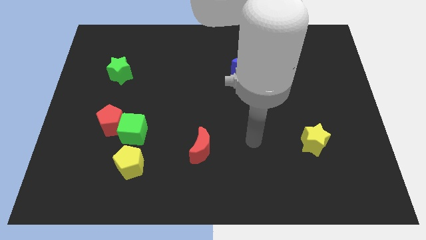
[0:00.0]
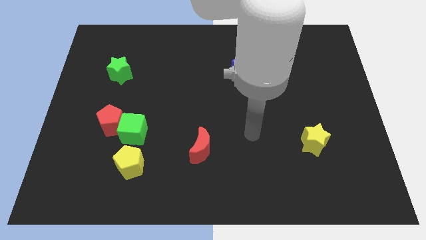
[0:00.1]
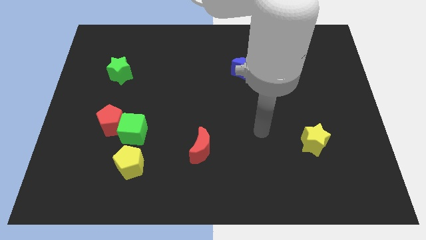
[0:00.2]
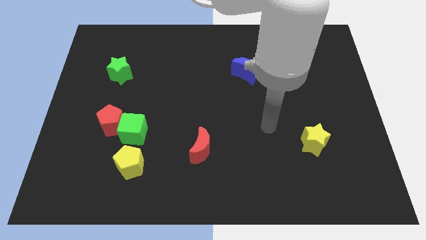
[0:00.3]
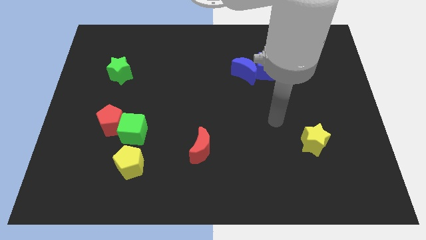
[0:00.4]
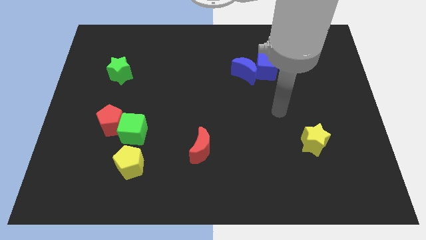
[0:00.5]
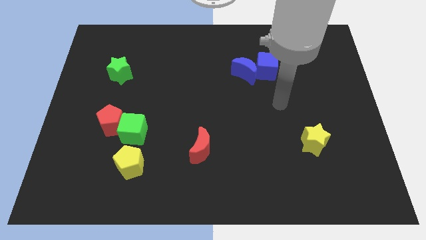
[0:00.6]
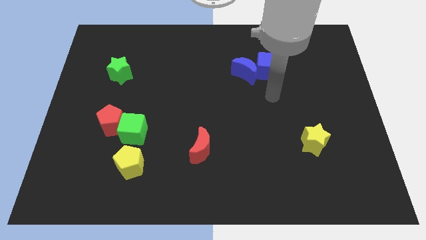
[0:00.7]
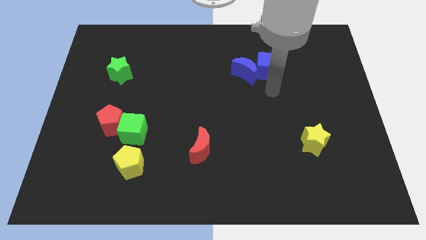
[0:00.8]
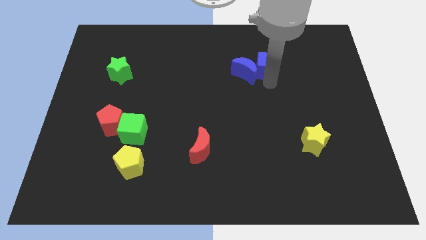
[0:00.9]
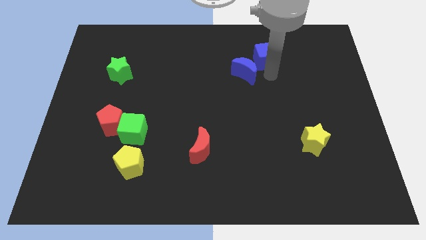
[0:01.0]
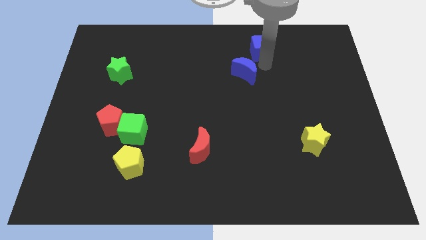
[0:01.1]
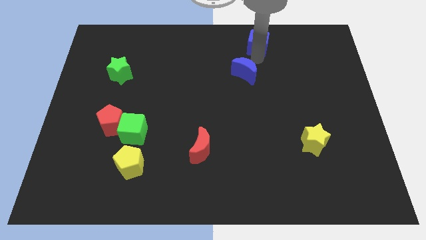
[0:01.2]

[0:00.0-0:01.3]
move the blue moon away from the blue cube

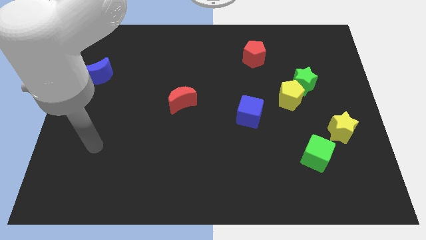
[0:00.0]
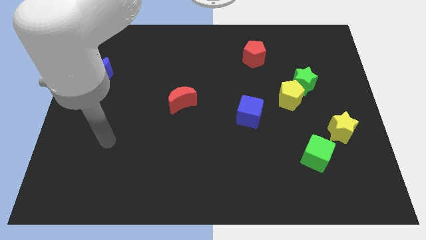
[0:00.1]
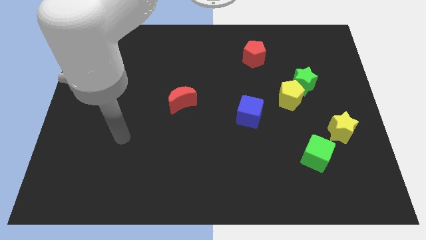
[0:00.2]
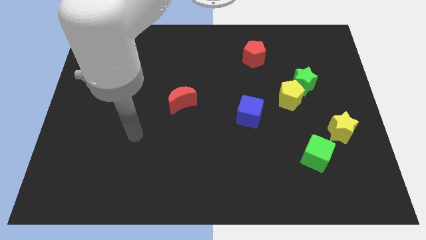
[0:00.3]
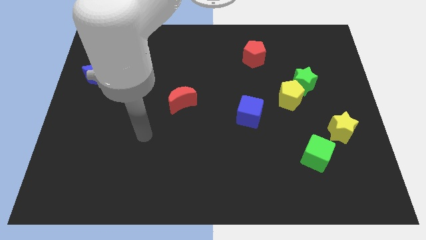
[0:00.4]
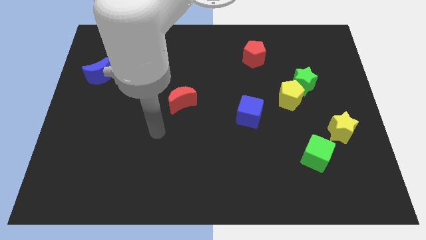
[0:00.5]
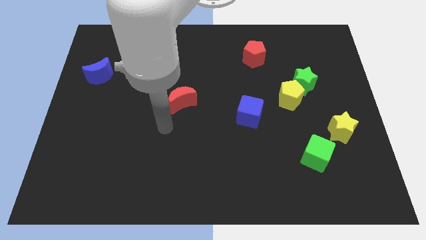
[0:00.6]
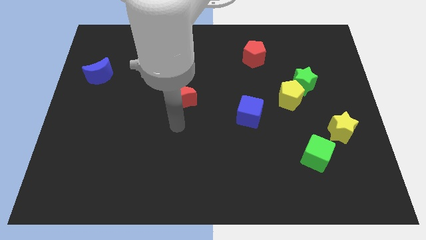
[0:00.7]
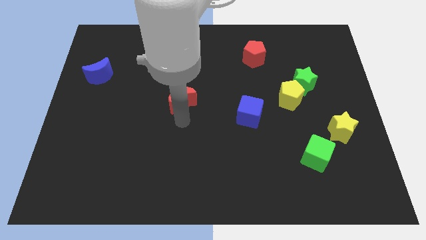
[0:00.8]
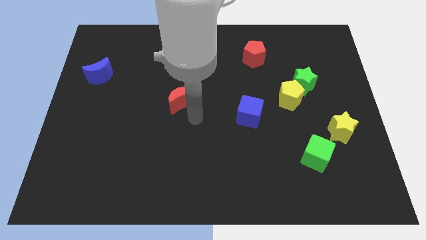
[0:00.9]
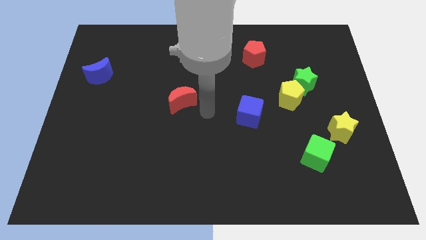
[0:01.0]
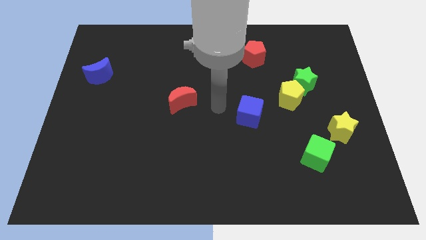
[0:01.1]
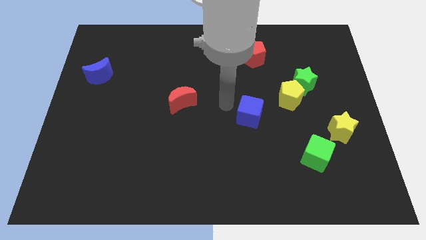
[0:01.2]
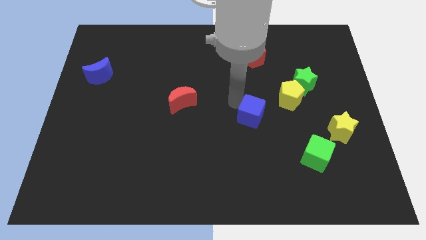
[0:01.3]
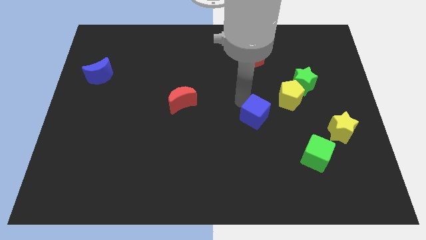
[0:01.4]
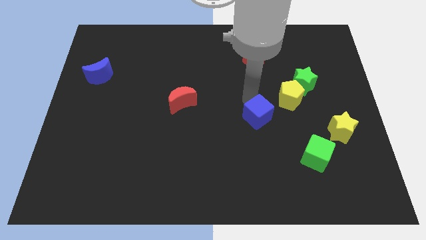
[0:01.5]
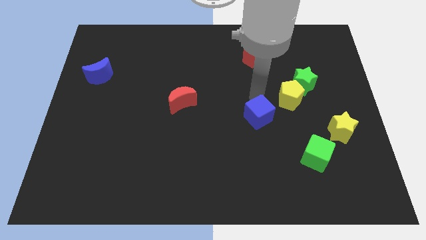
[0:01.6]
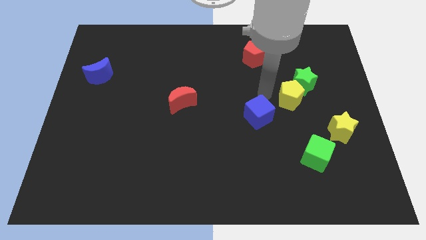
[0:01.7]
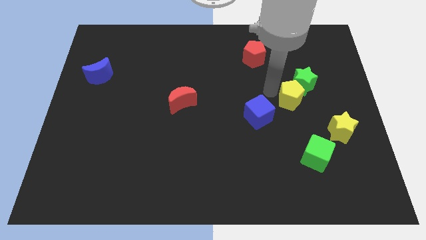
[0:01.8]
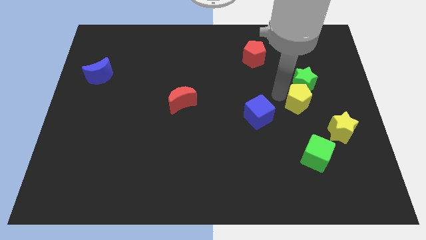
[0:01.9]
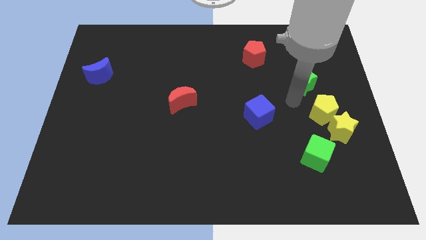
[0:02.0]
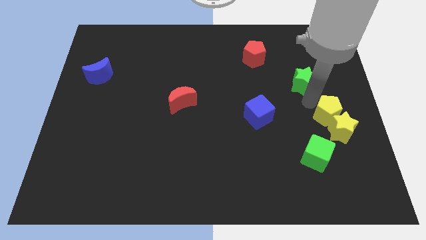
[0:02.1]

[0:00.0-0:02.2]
separate the green star from the yellow pentagon

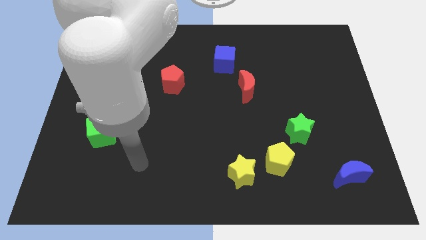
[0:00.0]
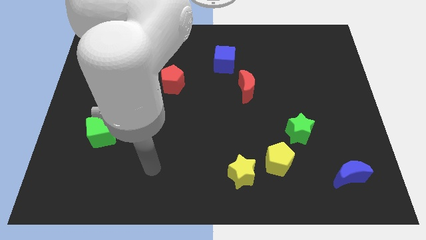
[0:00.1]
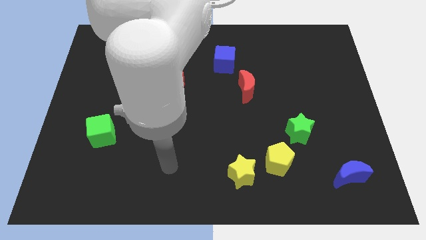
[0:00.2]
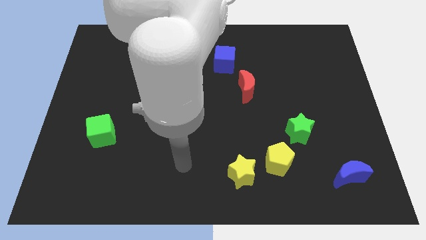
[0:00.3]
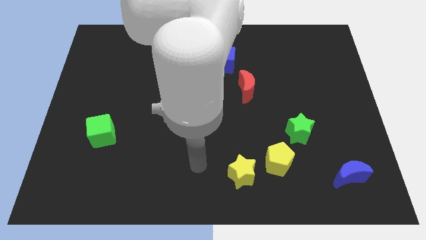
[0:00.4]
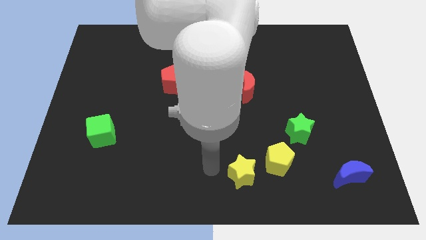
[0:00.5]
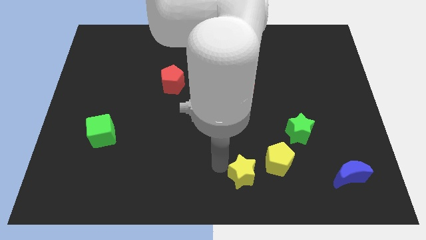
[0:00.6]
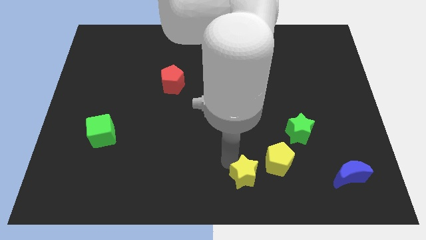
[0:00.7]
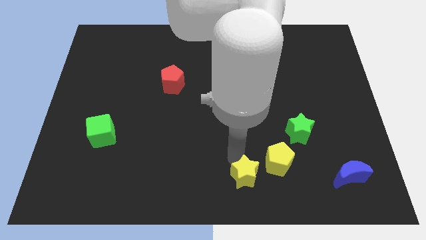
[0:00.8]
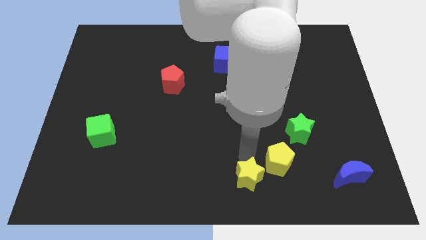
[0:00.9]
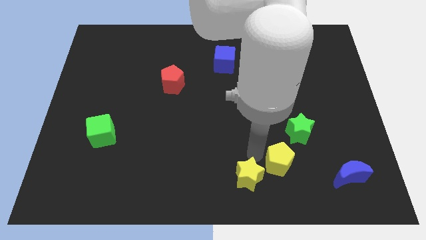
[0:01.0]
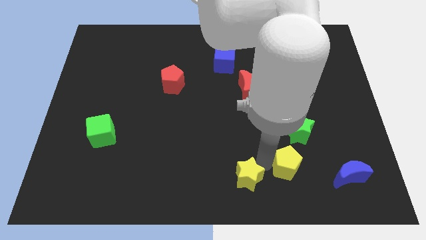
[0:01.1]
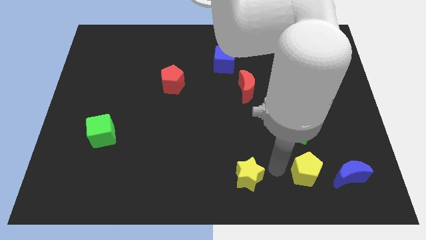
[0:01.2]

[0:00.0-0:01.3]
pull the yellow star apart from the yellow pentagon

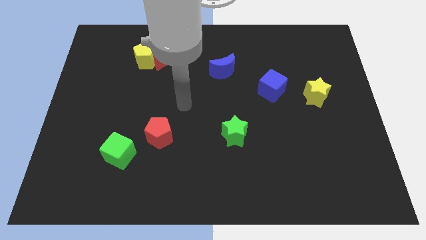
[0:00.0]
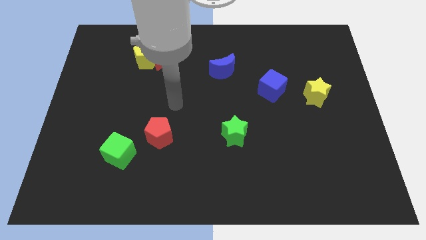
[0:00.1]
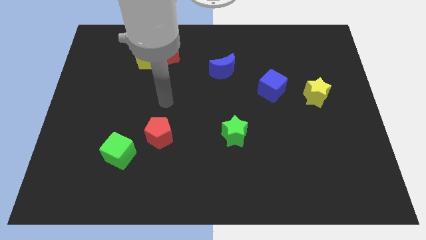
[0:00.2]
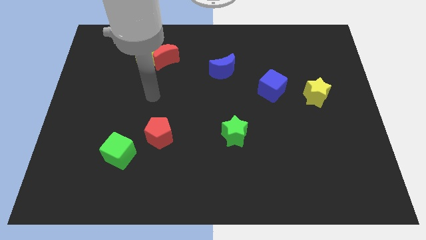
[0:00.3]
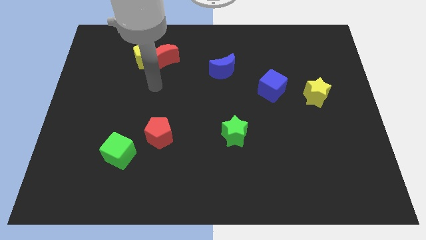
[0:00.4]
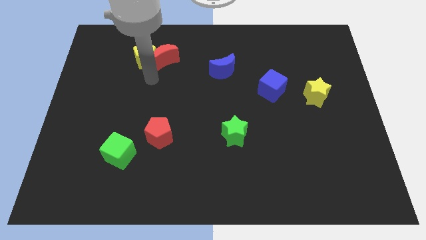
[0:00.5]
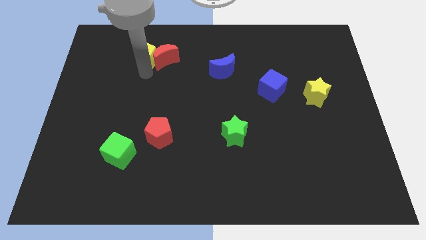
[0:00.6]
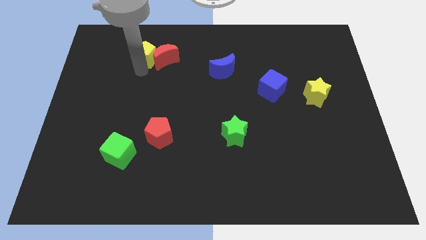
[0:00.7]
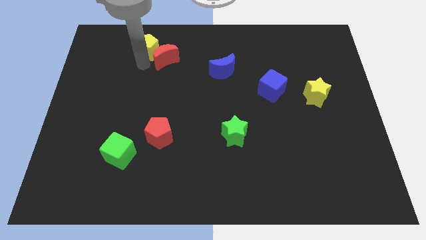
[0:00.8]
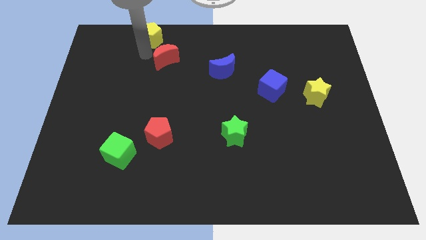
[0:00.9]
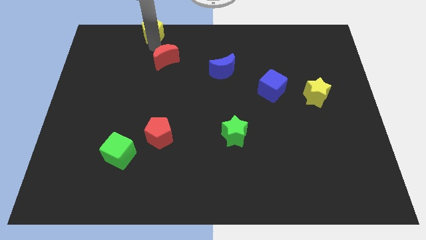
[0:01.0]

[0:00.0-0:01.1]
separate the red moon from the yellow pentagon

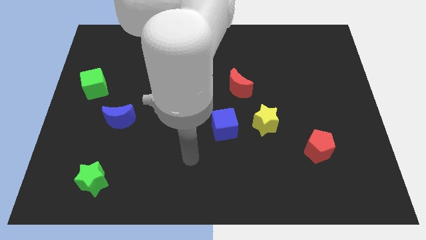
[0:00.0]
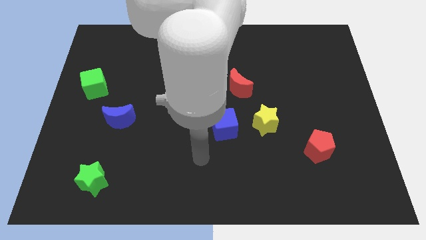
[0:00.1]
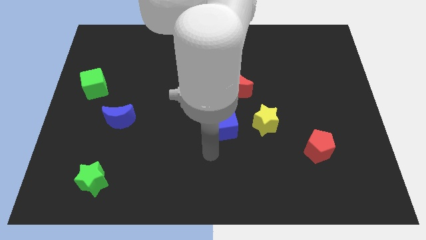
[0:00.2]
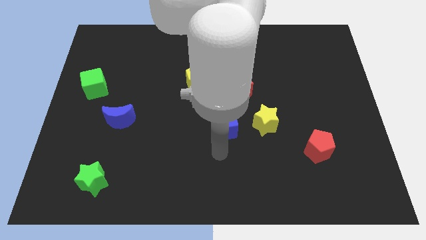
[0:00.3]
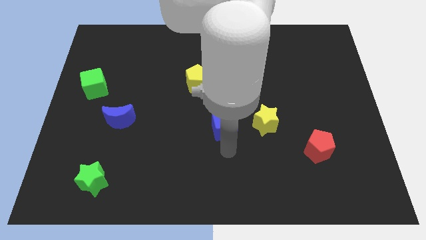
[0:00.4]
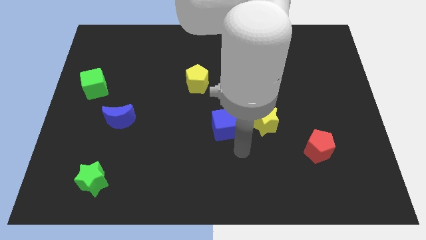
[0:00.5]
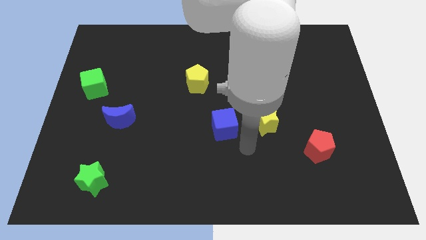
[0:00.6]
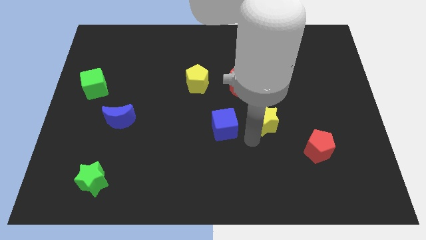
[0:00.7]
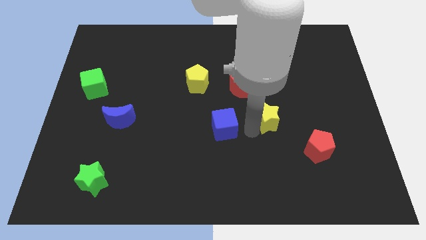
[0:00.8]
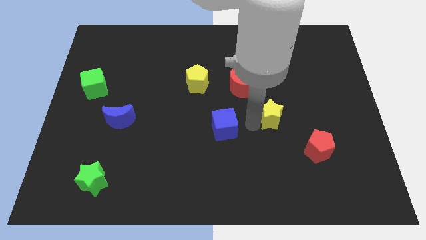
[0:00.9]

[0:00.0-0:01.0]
move the blue cube away from the yellow star

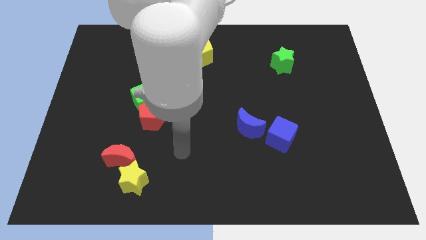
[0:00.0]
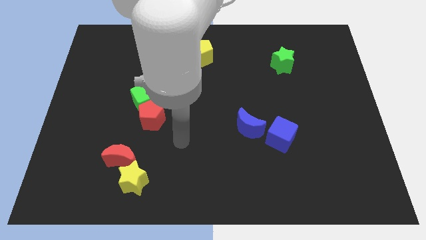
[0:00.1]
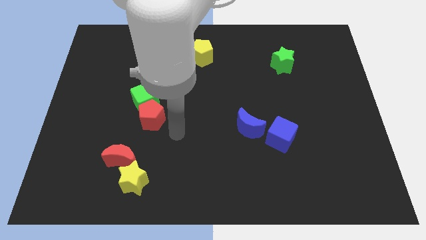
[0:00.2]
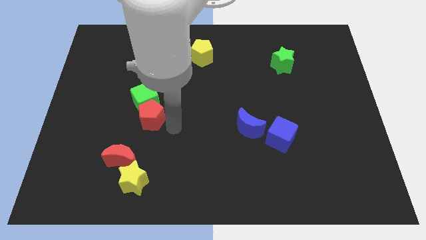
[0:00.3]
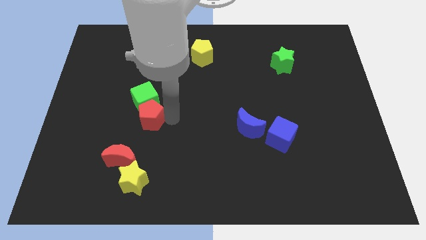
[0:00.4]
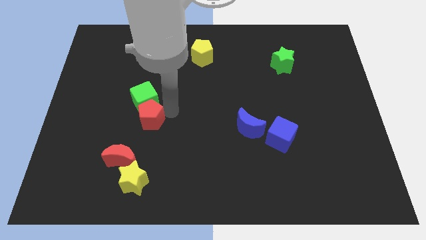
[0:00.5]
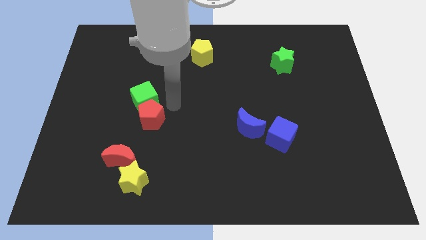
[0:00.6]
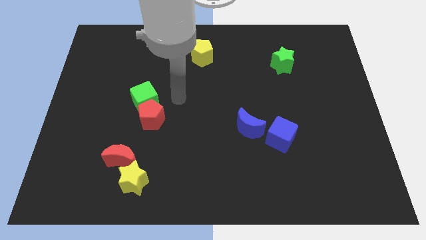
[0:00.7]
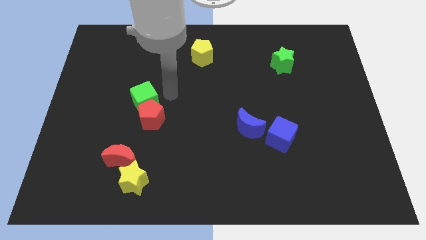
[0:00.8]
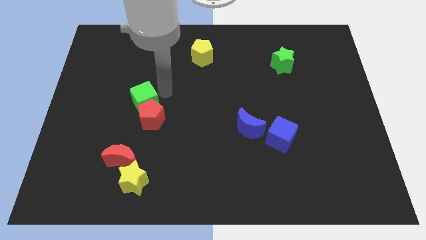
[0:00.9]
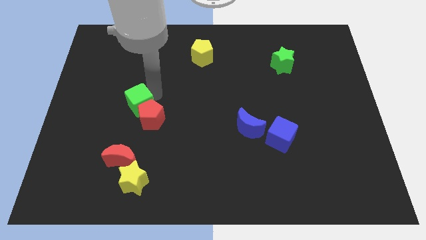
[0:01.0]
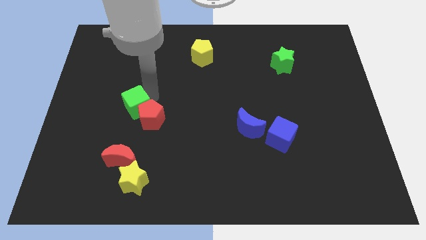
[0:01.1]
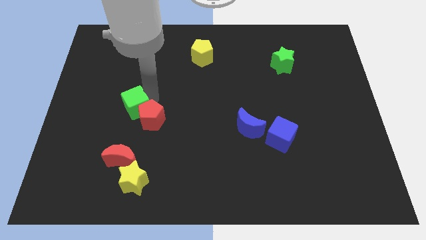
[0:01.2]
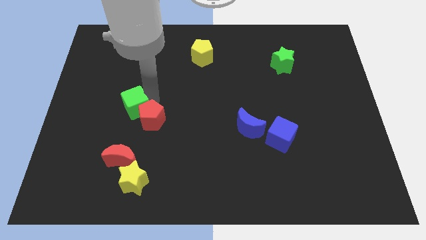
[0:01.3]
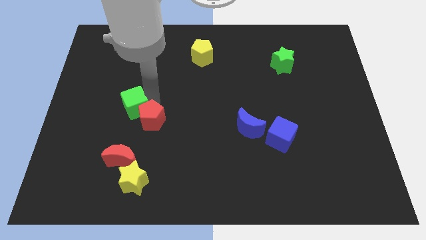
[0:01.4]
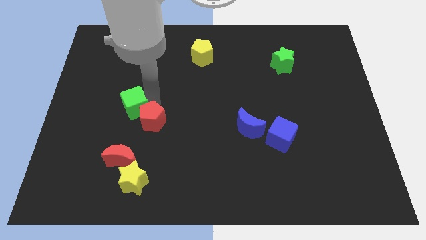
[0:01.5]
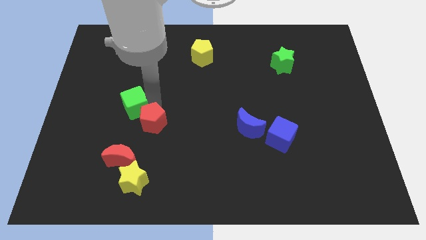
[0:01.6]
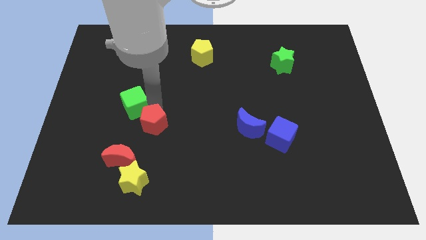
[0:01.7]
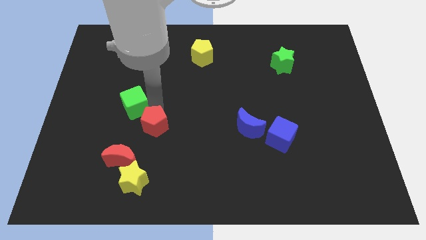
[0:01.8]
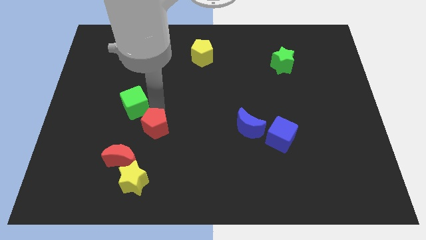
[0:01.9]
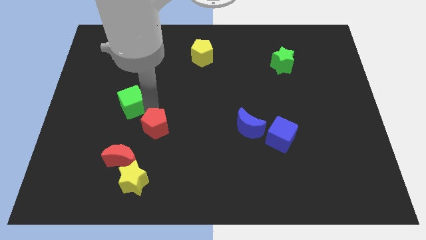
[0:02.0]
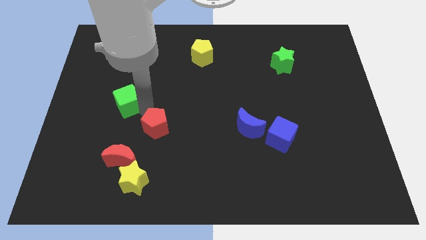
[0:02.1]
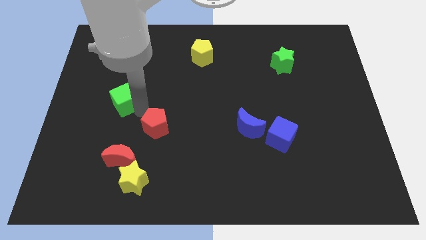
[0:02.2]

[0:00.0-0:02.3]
separate the red pentagon from the green cube
